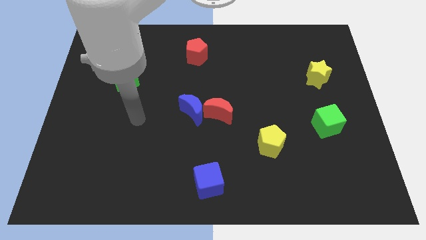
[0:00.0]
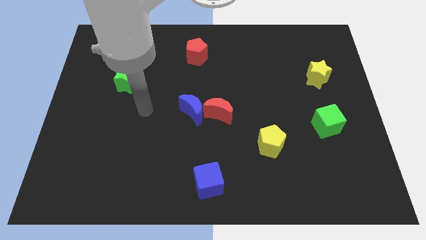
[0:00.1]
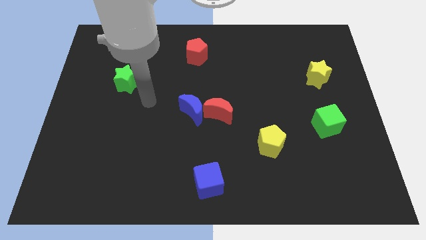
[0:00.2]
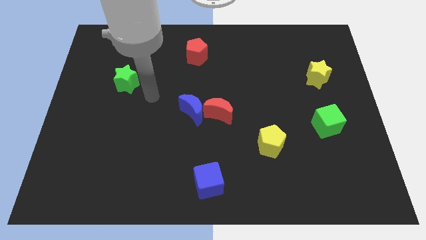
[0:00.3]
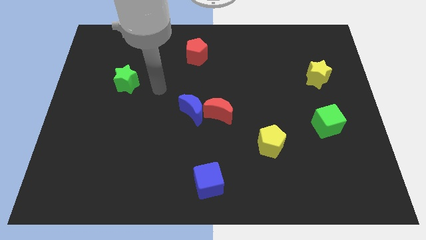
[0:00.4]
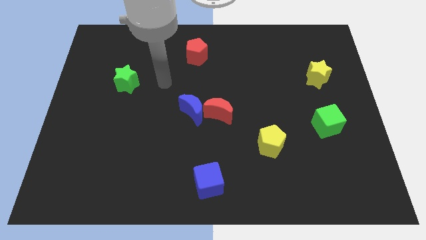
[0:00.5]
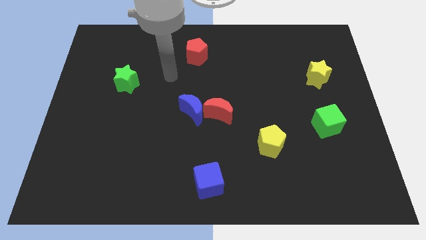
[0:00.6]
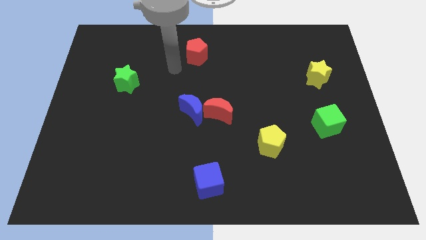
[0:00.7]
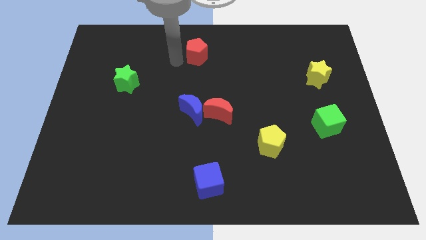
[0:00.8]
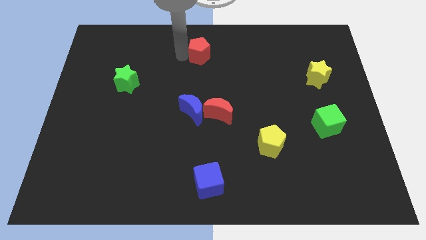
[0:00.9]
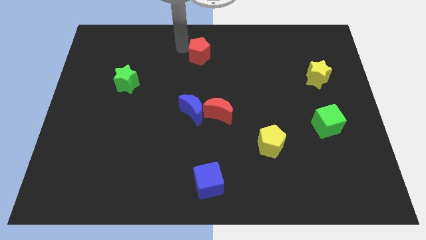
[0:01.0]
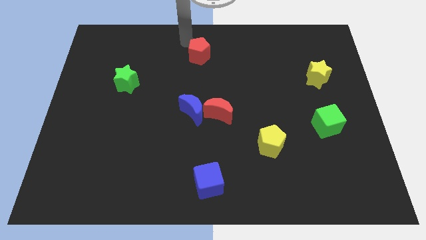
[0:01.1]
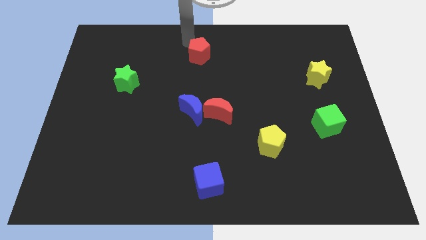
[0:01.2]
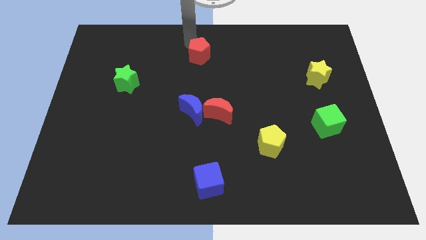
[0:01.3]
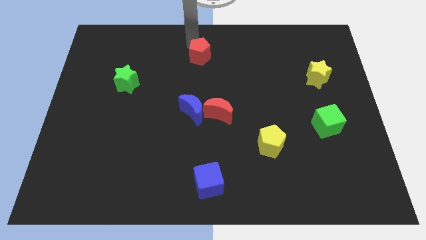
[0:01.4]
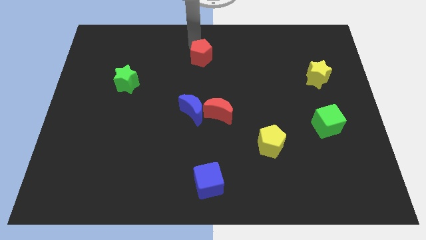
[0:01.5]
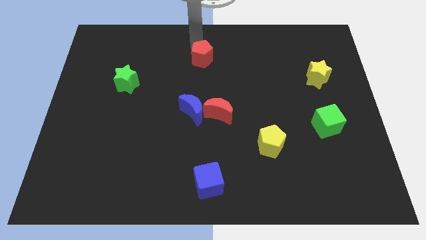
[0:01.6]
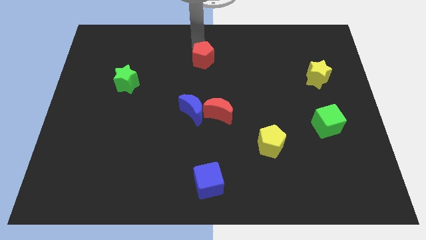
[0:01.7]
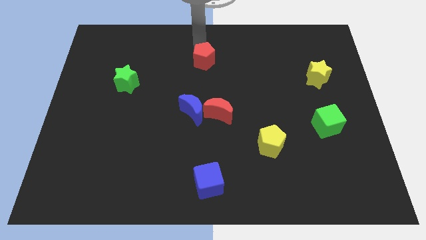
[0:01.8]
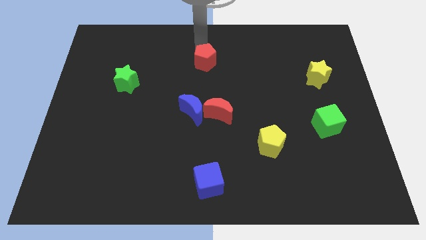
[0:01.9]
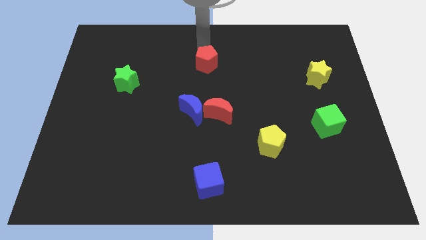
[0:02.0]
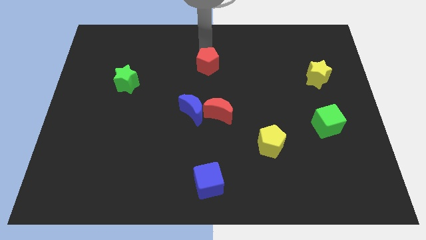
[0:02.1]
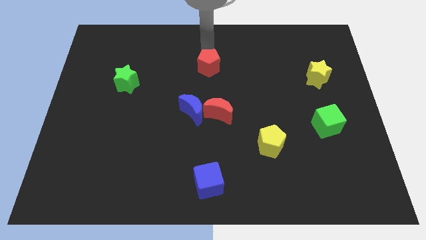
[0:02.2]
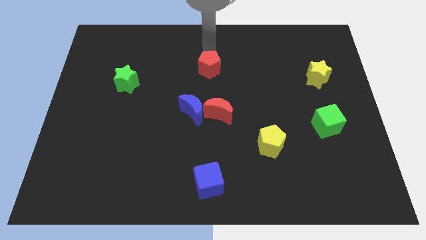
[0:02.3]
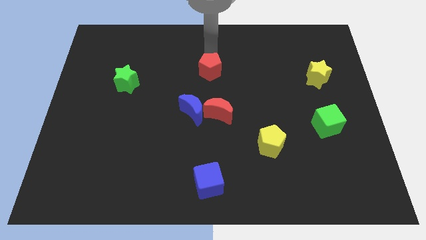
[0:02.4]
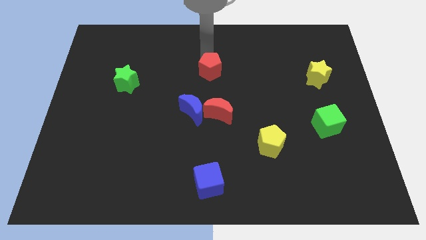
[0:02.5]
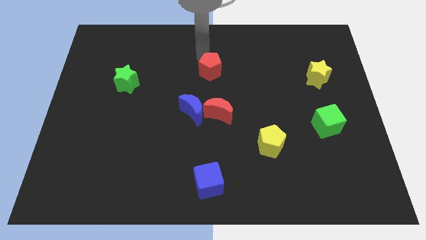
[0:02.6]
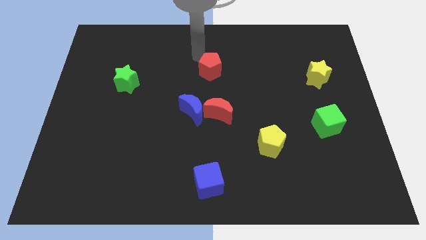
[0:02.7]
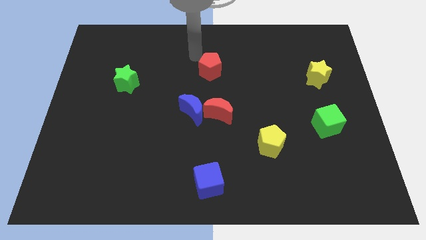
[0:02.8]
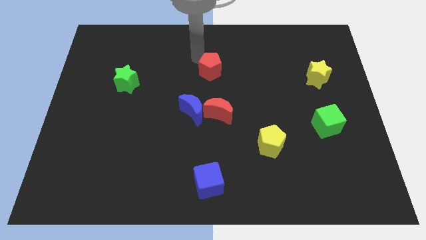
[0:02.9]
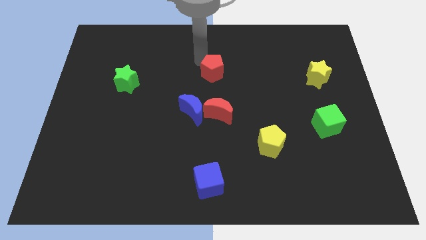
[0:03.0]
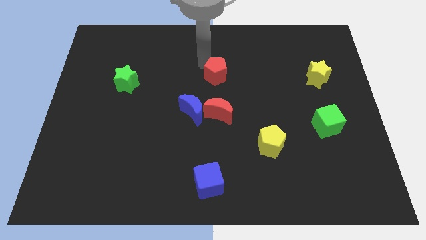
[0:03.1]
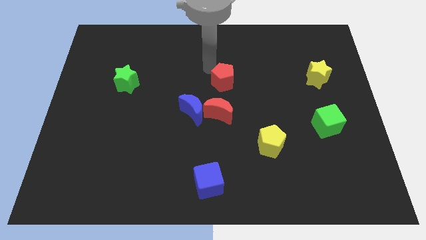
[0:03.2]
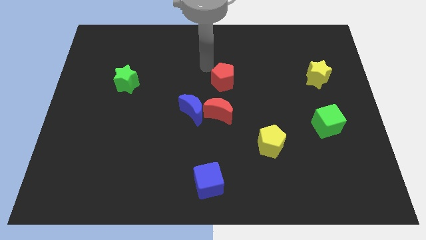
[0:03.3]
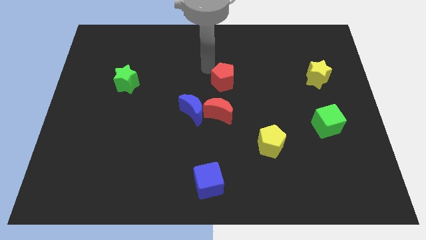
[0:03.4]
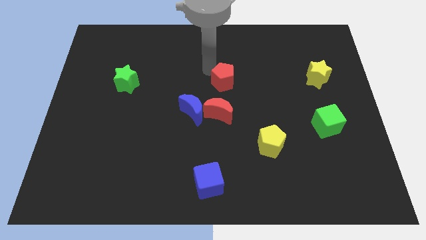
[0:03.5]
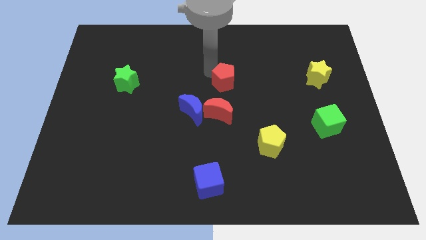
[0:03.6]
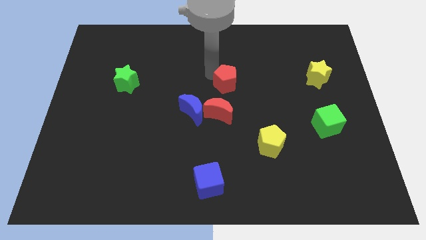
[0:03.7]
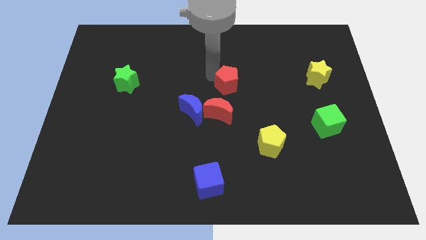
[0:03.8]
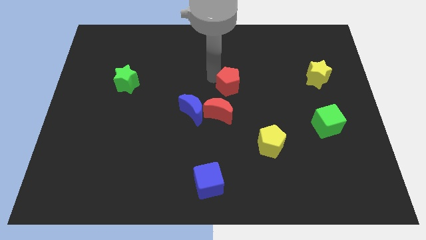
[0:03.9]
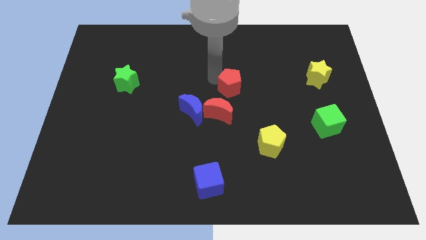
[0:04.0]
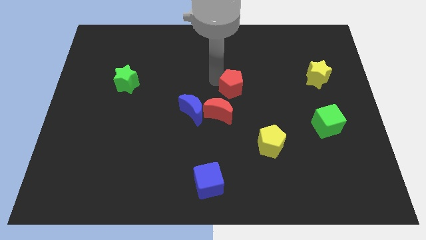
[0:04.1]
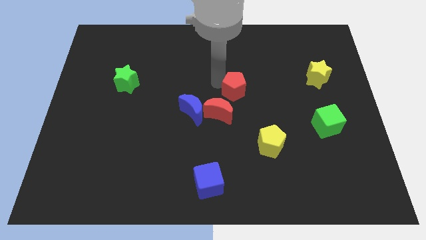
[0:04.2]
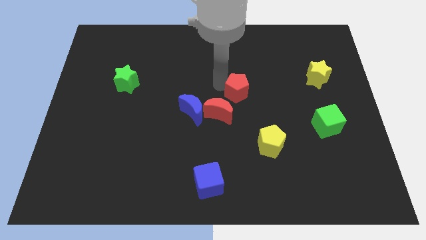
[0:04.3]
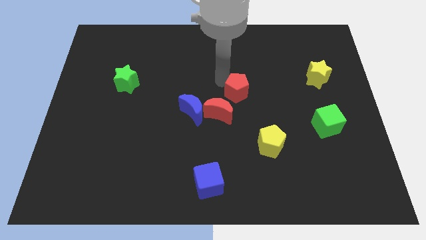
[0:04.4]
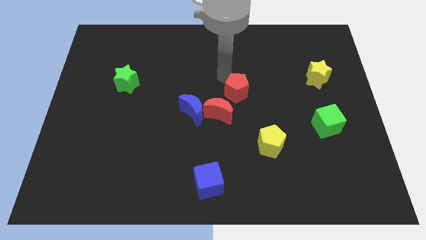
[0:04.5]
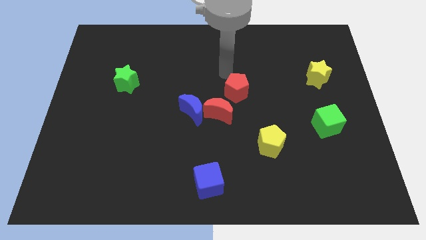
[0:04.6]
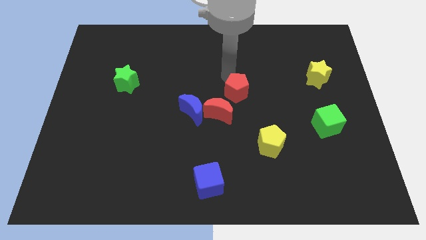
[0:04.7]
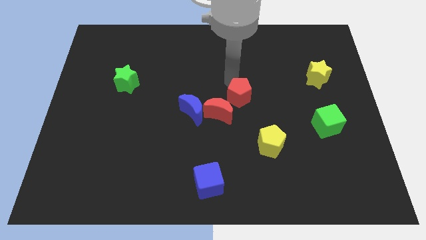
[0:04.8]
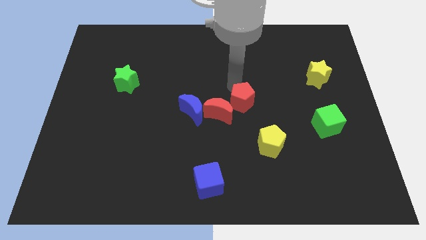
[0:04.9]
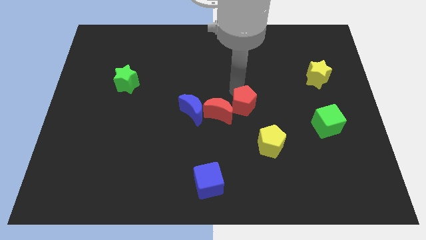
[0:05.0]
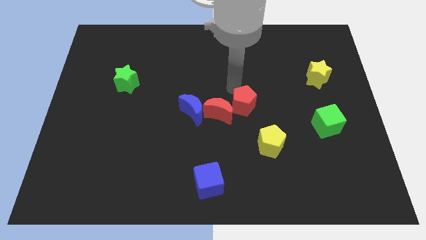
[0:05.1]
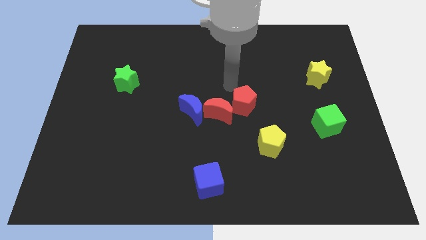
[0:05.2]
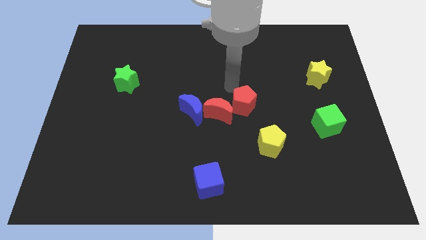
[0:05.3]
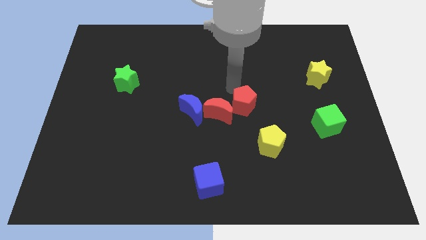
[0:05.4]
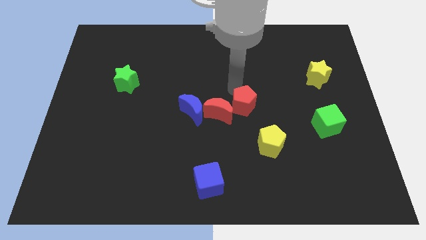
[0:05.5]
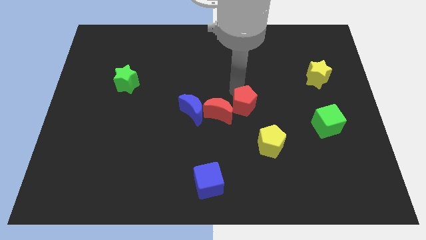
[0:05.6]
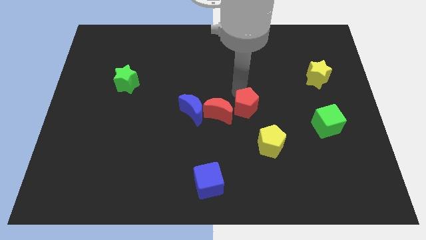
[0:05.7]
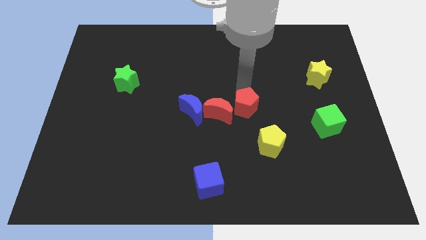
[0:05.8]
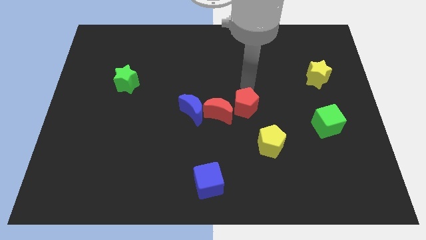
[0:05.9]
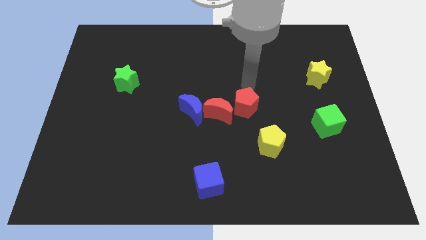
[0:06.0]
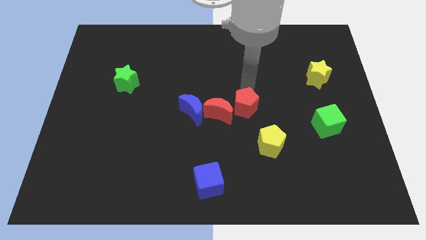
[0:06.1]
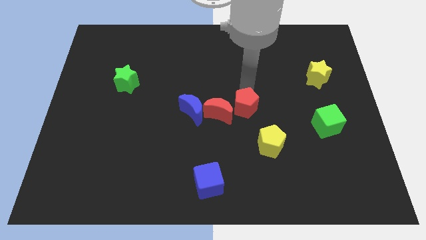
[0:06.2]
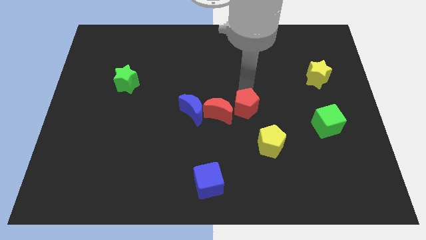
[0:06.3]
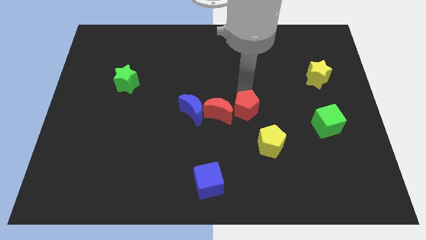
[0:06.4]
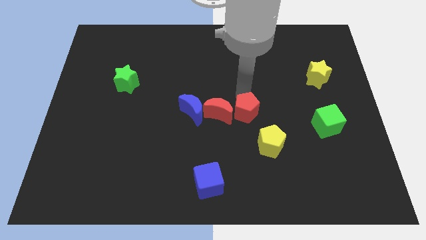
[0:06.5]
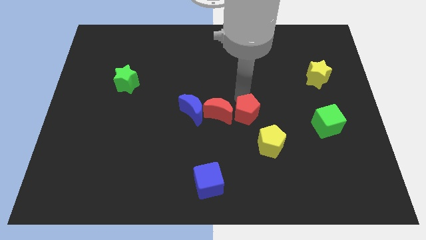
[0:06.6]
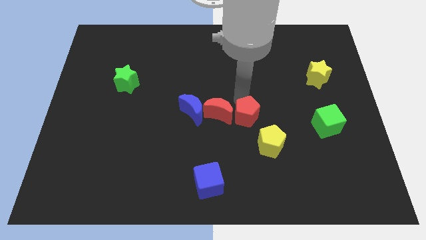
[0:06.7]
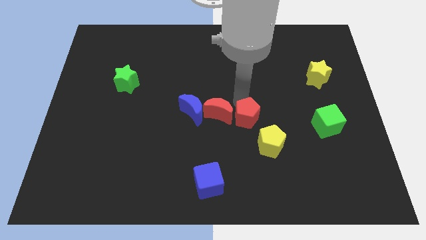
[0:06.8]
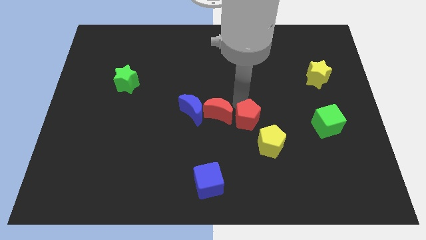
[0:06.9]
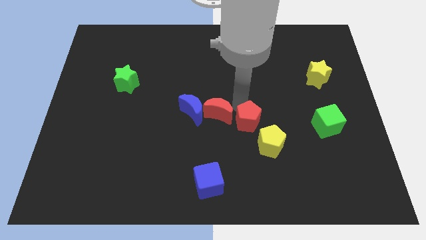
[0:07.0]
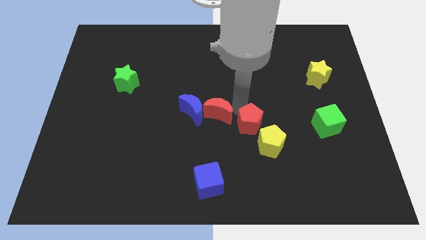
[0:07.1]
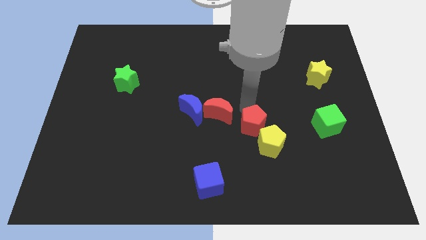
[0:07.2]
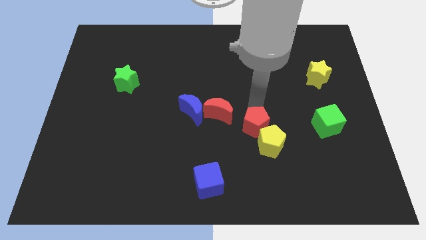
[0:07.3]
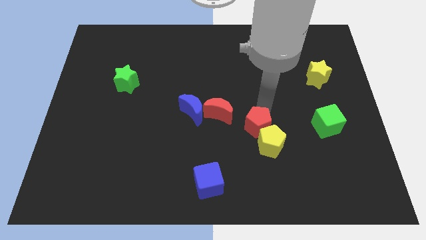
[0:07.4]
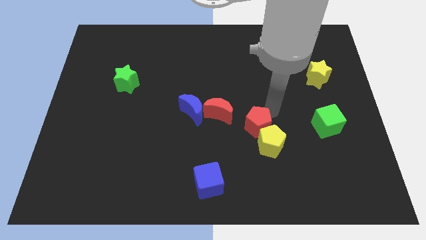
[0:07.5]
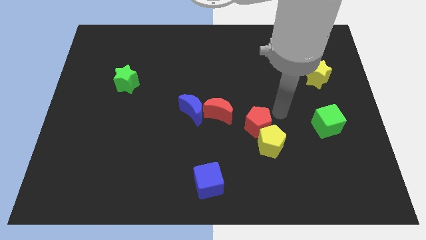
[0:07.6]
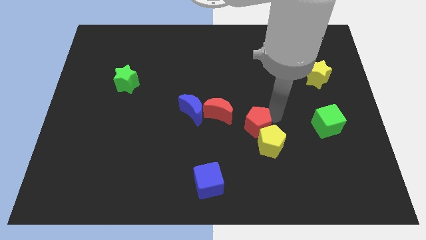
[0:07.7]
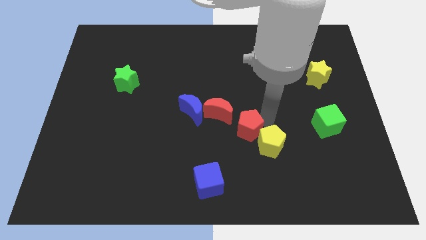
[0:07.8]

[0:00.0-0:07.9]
move the red pentagon just left of the yellow pentagon
